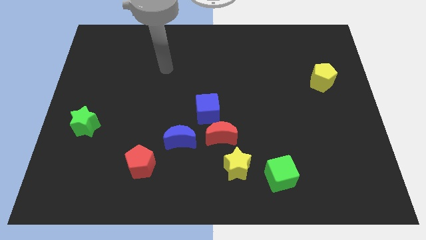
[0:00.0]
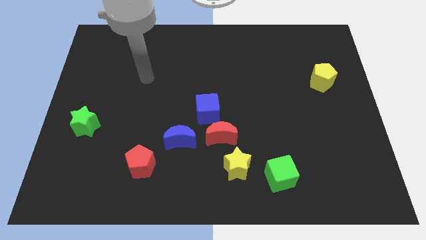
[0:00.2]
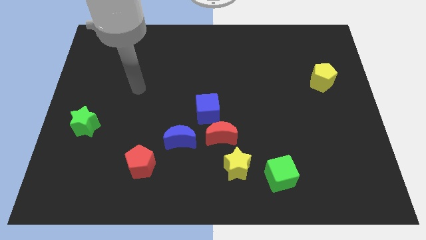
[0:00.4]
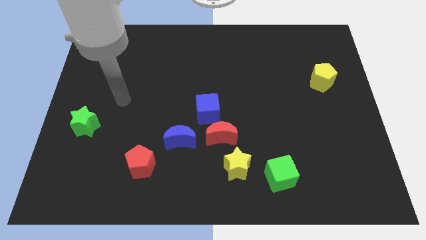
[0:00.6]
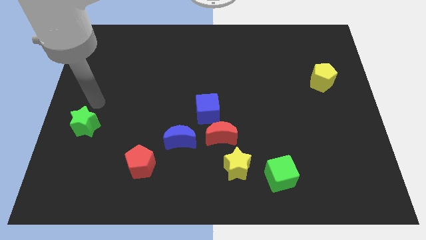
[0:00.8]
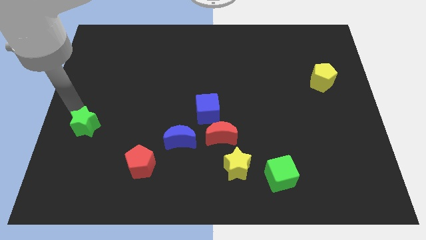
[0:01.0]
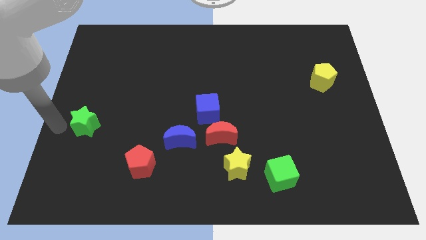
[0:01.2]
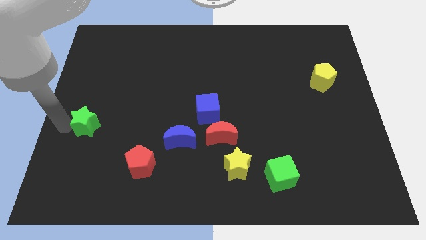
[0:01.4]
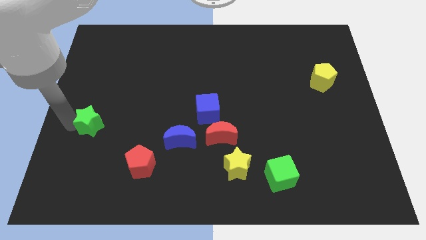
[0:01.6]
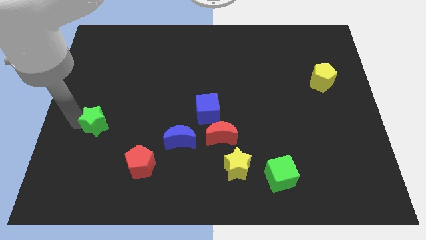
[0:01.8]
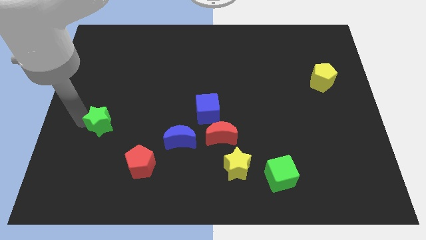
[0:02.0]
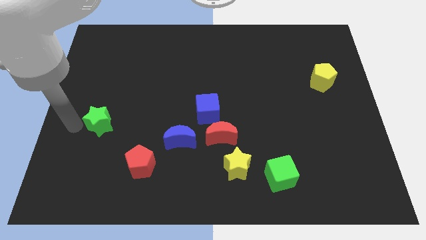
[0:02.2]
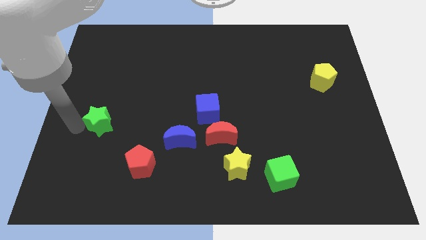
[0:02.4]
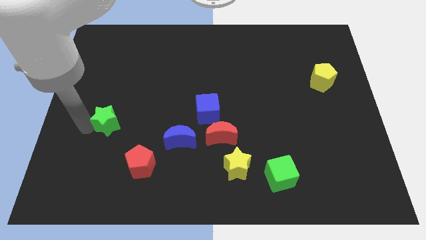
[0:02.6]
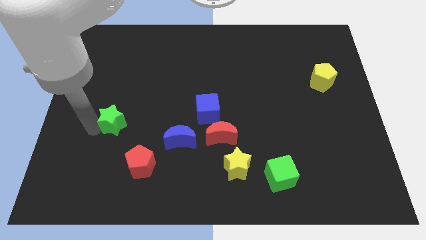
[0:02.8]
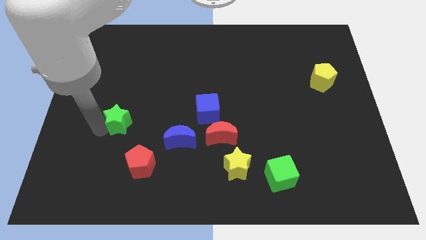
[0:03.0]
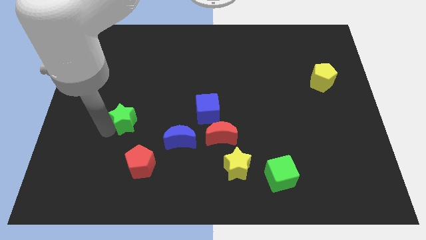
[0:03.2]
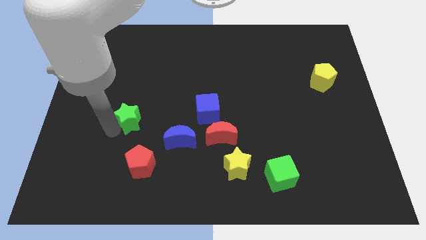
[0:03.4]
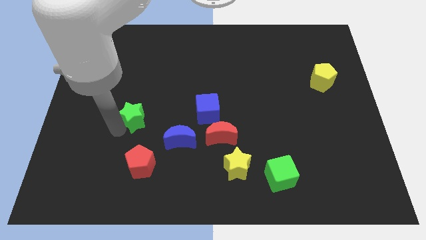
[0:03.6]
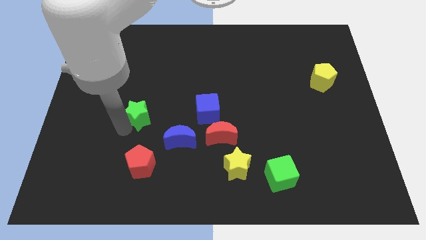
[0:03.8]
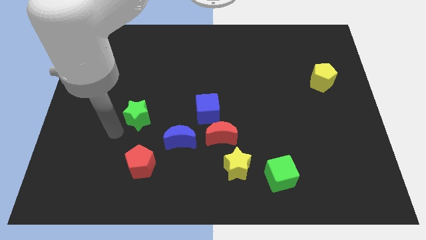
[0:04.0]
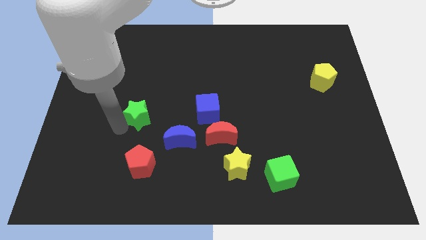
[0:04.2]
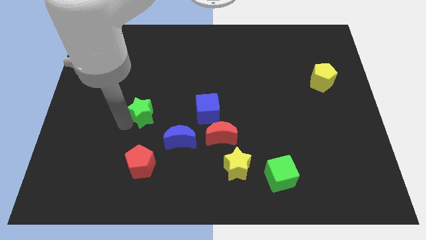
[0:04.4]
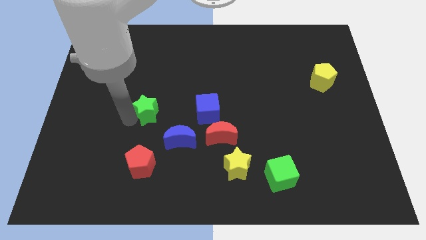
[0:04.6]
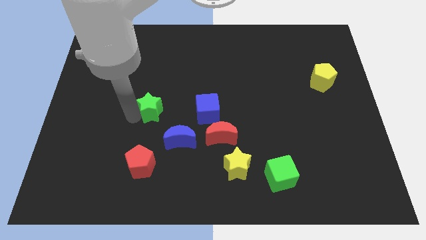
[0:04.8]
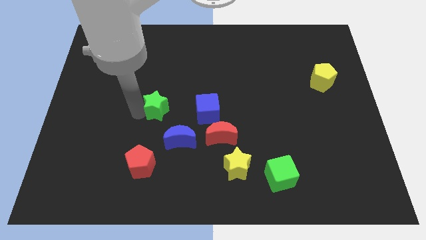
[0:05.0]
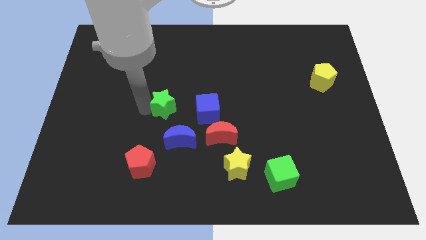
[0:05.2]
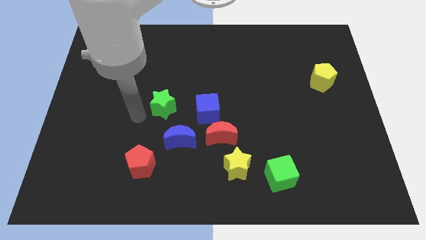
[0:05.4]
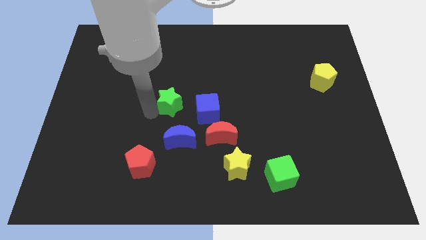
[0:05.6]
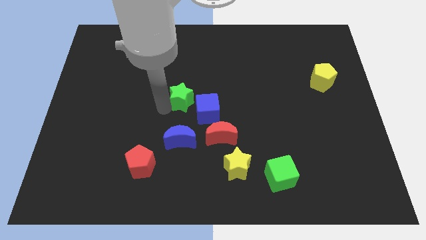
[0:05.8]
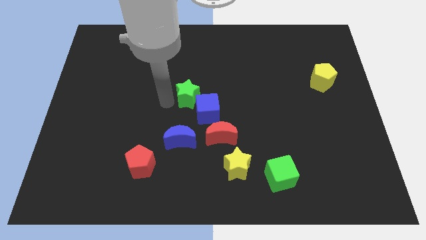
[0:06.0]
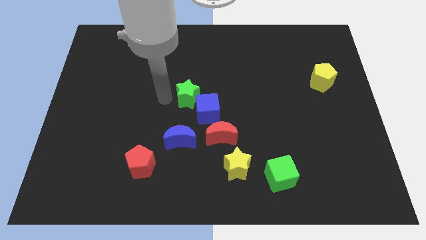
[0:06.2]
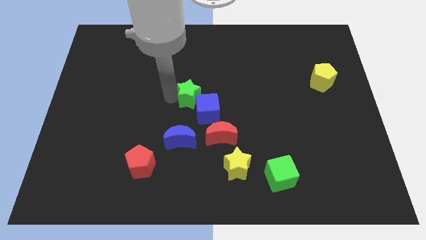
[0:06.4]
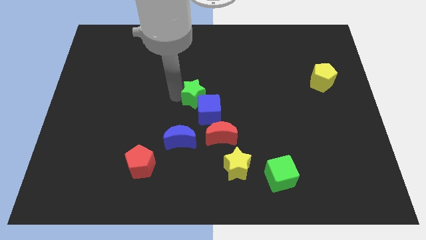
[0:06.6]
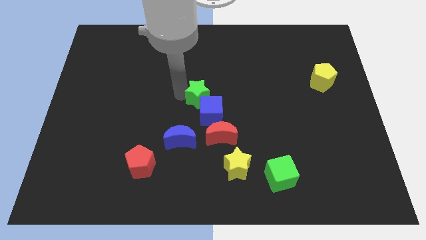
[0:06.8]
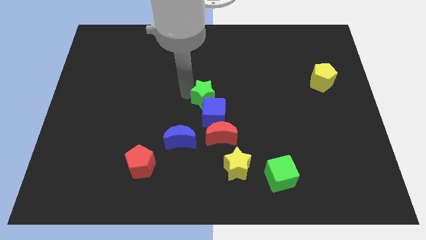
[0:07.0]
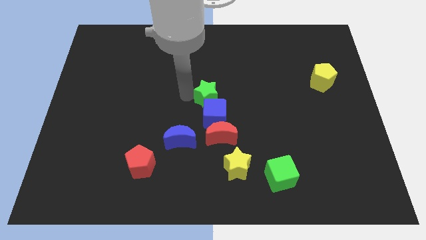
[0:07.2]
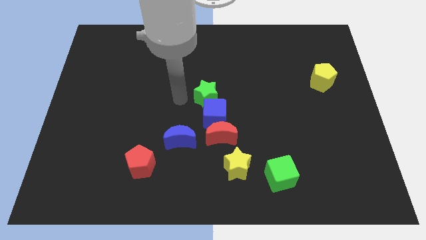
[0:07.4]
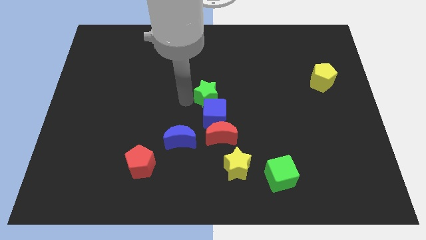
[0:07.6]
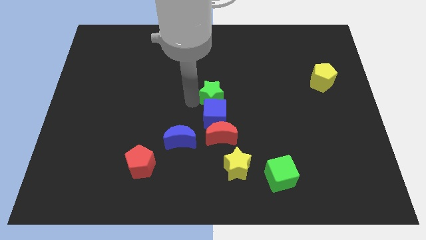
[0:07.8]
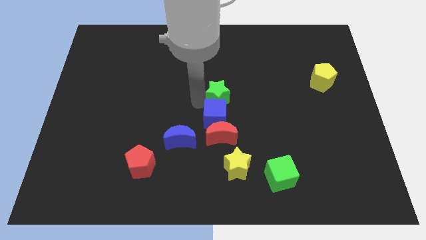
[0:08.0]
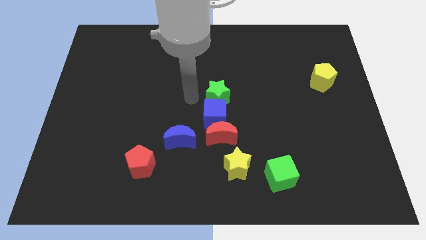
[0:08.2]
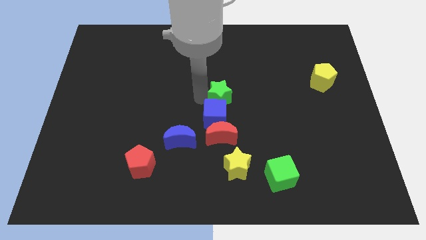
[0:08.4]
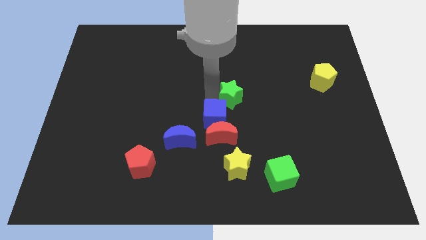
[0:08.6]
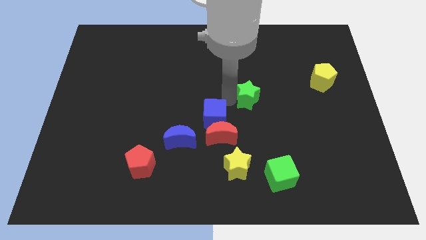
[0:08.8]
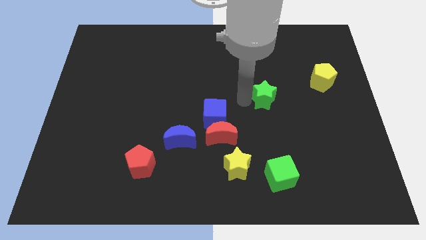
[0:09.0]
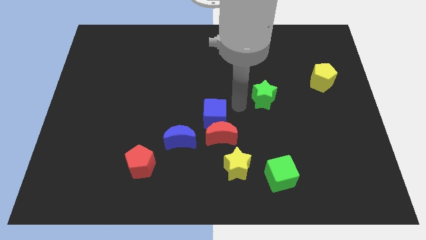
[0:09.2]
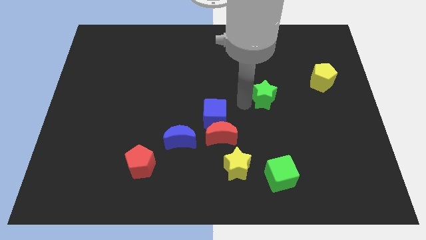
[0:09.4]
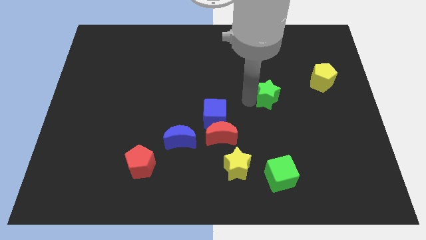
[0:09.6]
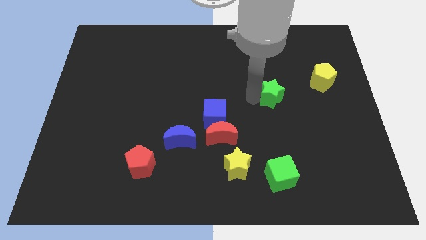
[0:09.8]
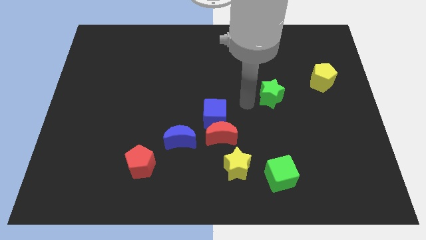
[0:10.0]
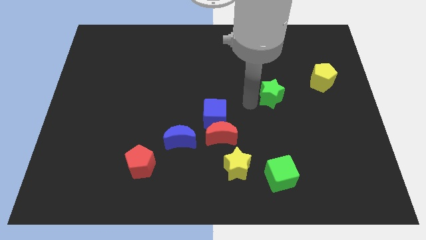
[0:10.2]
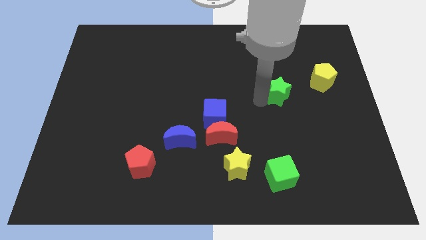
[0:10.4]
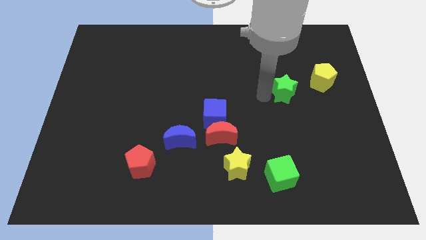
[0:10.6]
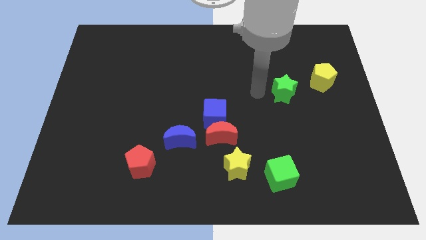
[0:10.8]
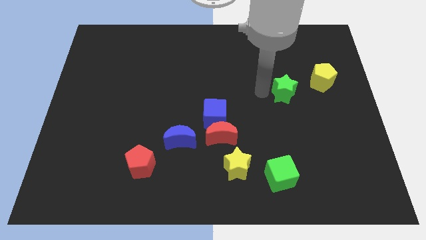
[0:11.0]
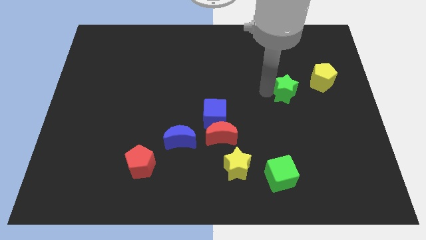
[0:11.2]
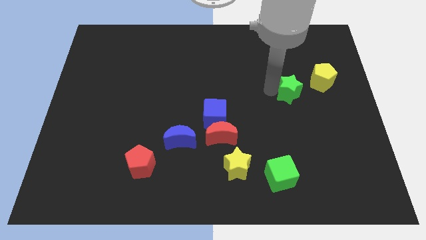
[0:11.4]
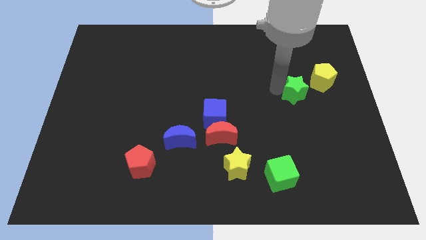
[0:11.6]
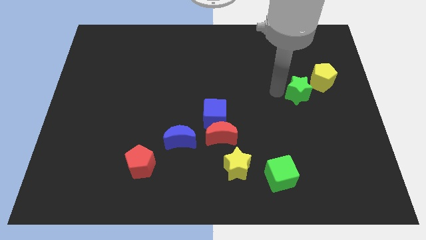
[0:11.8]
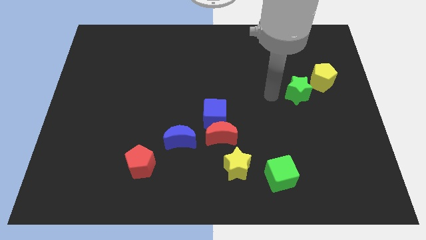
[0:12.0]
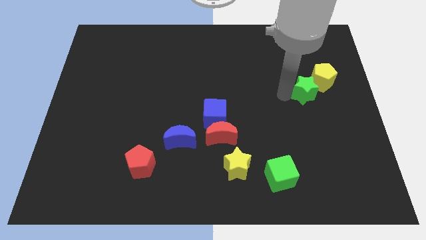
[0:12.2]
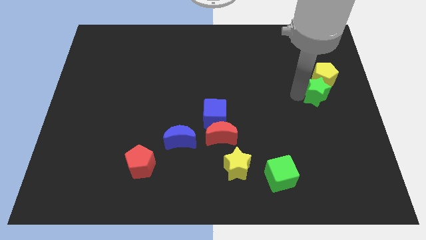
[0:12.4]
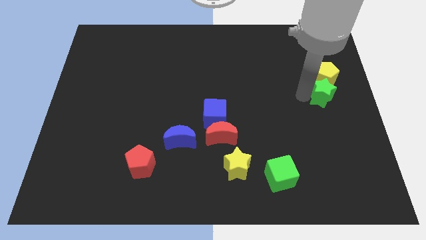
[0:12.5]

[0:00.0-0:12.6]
push the green star to the right side of the board
